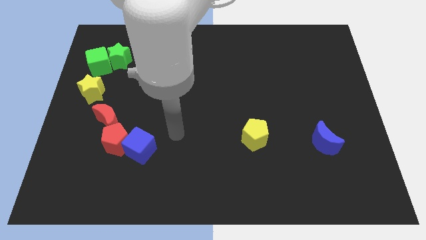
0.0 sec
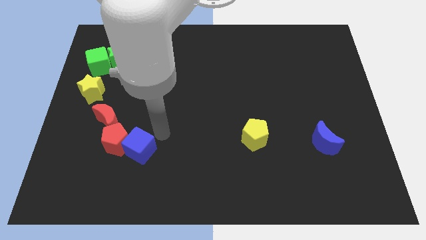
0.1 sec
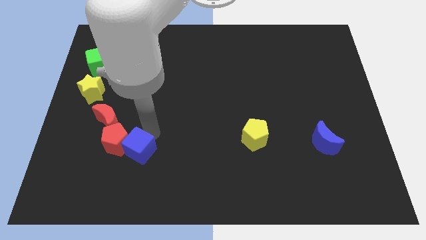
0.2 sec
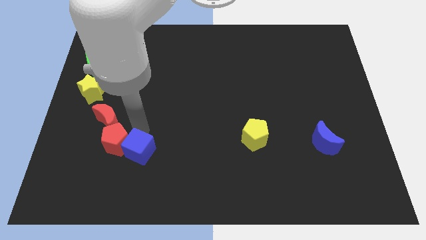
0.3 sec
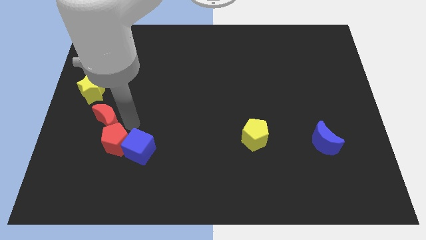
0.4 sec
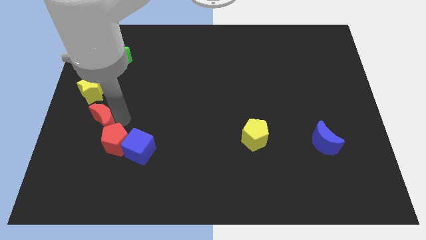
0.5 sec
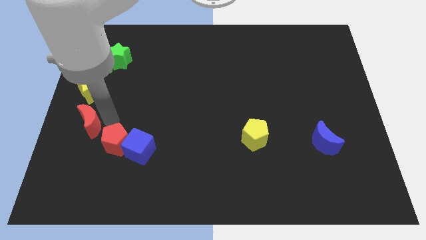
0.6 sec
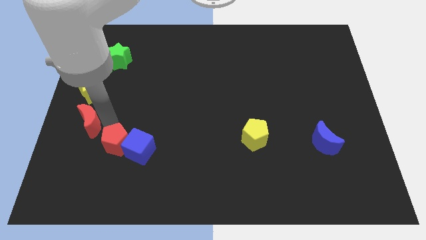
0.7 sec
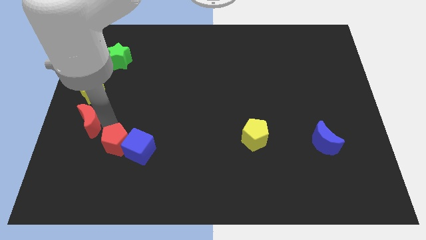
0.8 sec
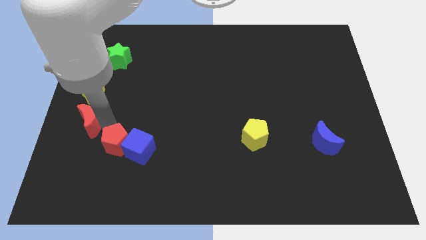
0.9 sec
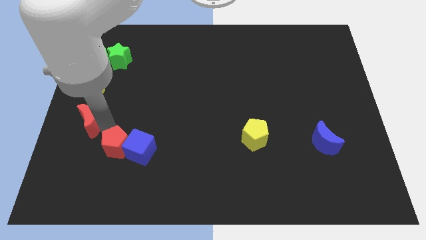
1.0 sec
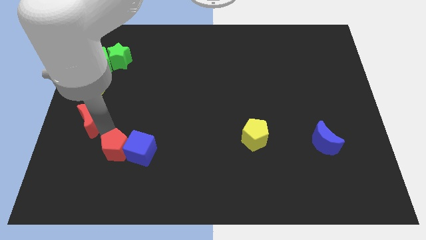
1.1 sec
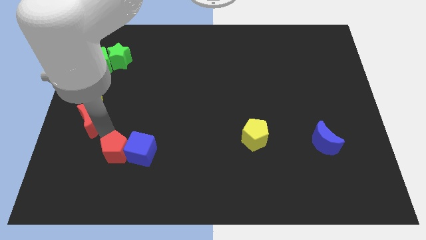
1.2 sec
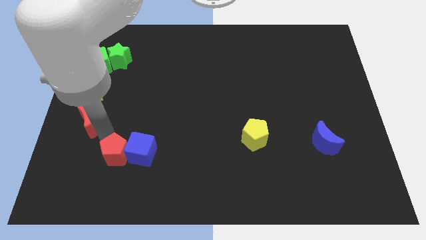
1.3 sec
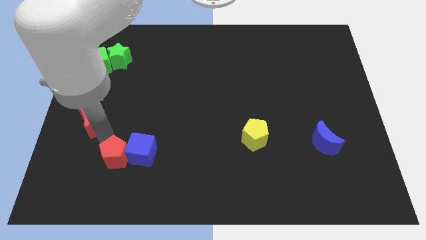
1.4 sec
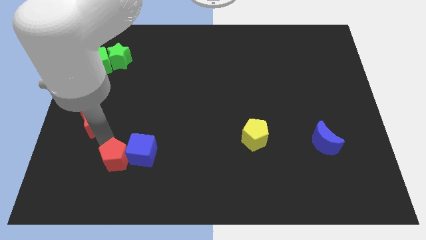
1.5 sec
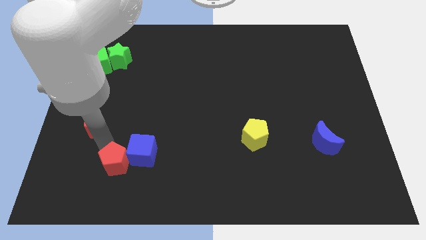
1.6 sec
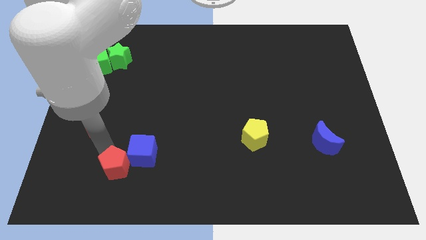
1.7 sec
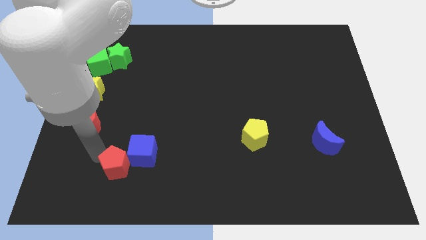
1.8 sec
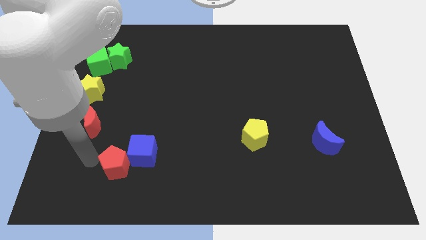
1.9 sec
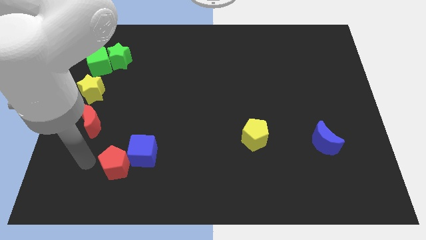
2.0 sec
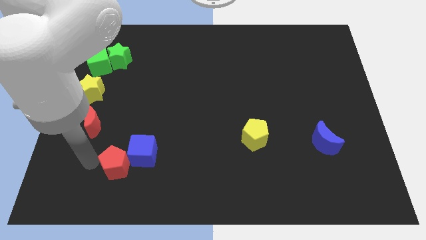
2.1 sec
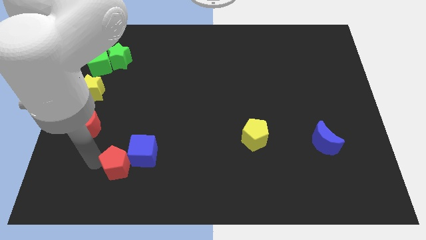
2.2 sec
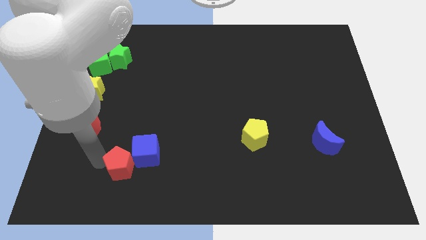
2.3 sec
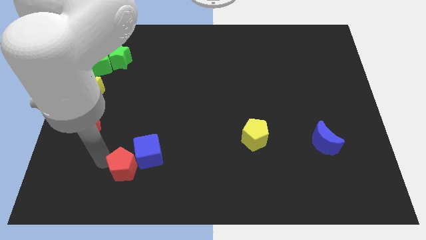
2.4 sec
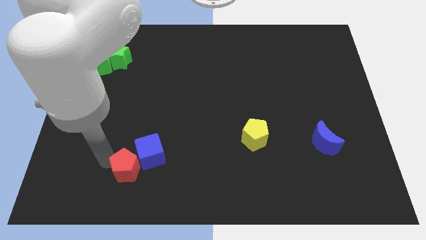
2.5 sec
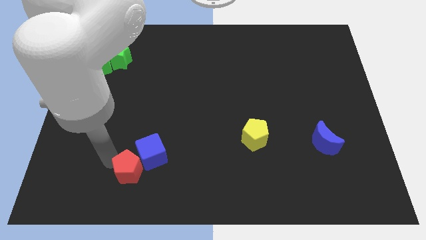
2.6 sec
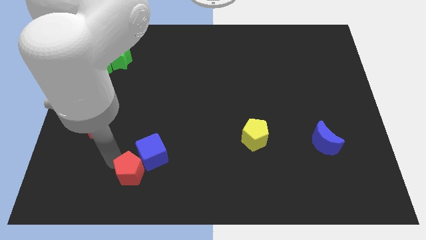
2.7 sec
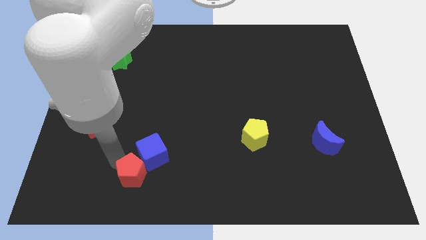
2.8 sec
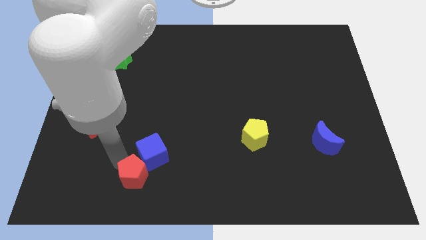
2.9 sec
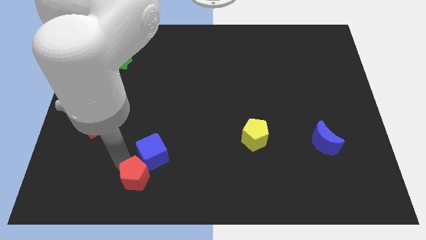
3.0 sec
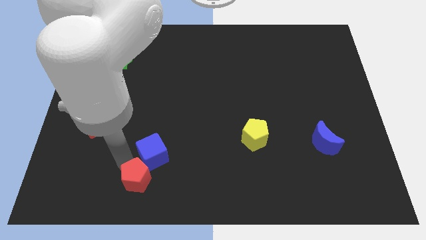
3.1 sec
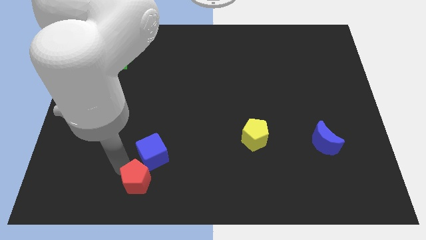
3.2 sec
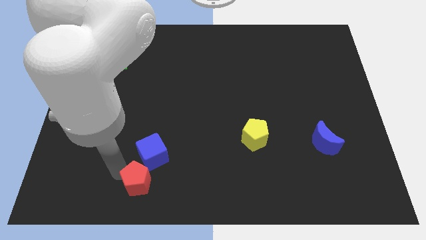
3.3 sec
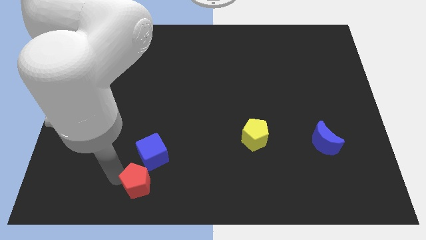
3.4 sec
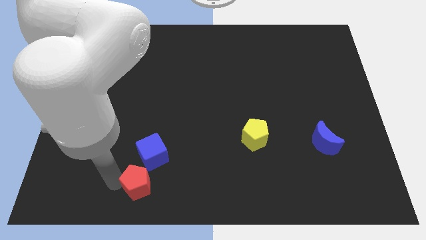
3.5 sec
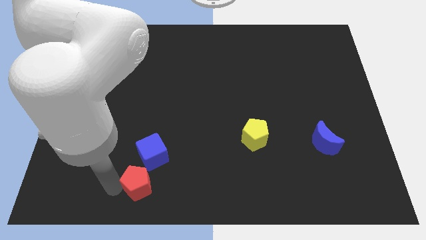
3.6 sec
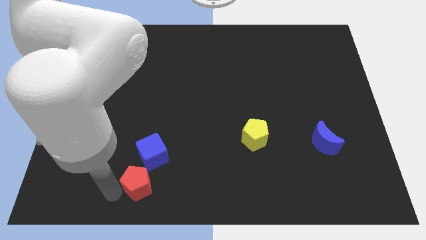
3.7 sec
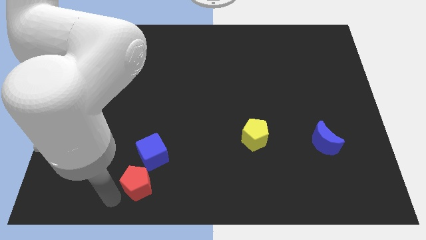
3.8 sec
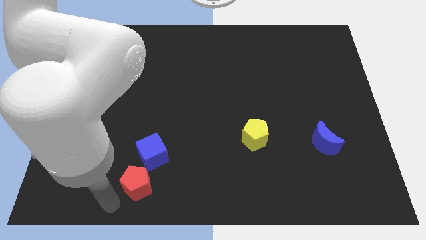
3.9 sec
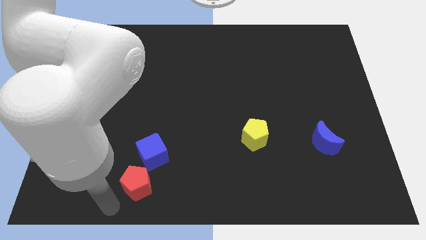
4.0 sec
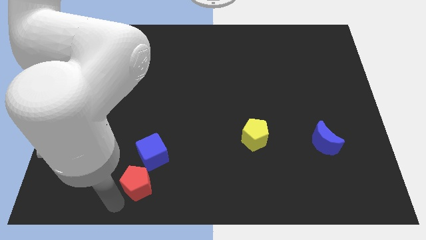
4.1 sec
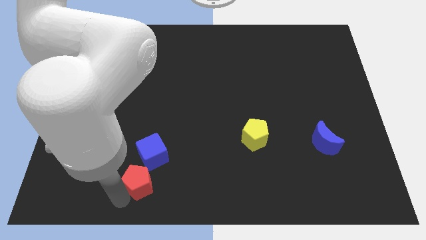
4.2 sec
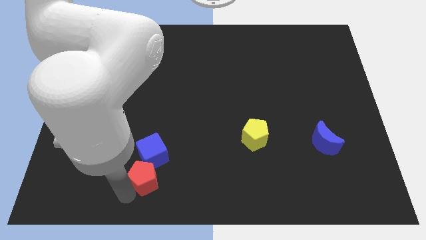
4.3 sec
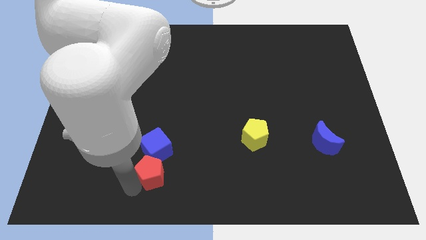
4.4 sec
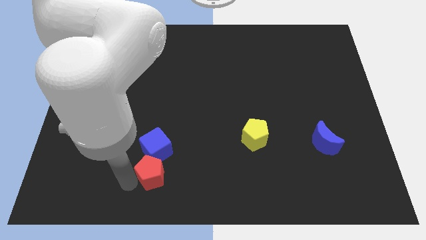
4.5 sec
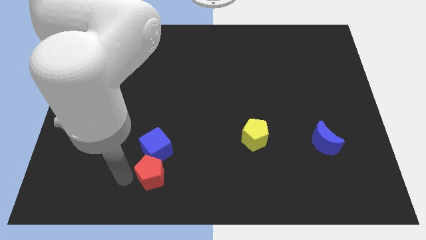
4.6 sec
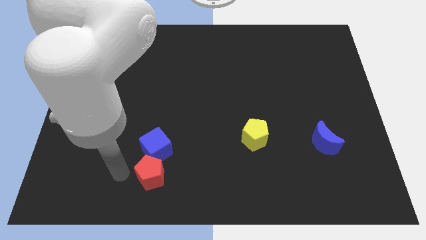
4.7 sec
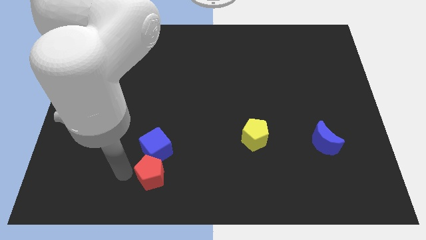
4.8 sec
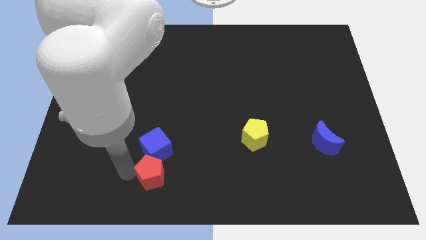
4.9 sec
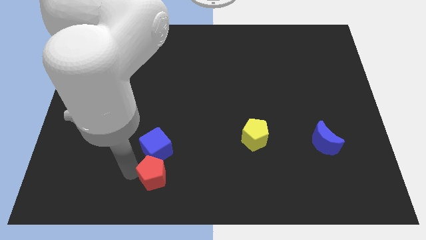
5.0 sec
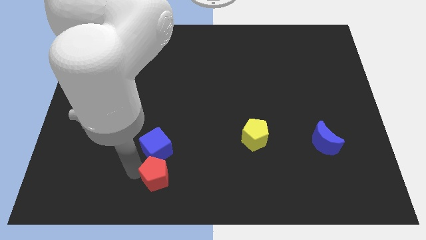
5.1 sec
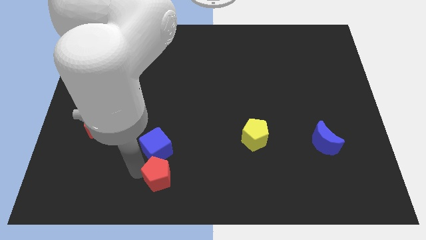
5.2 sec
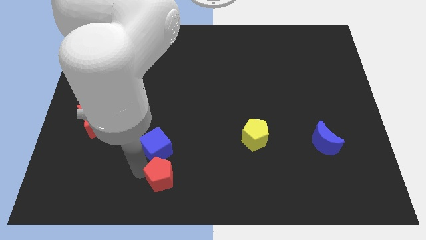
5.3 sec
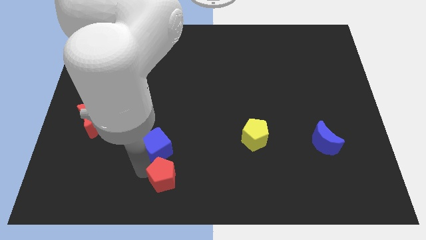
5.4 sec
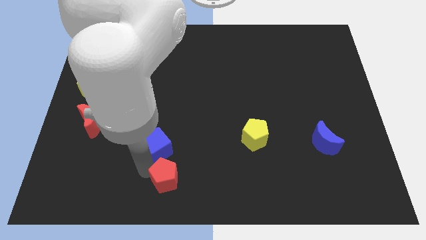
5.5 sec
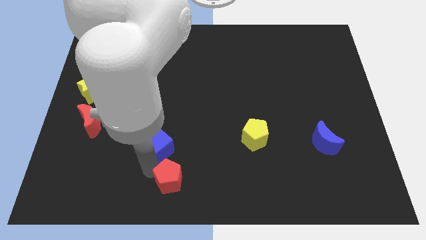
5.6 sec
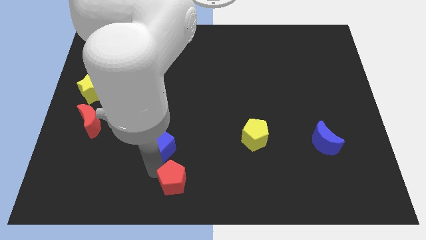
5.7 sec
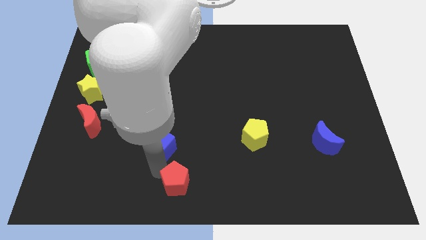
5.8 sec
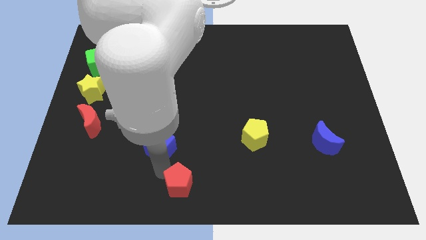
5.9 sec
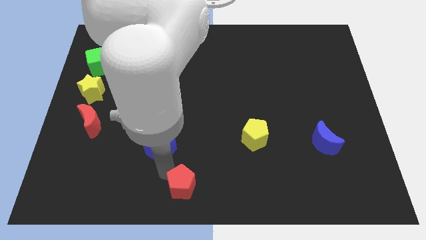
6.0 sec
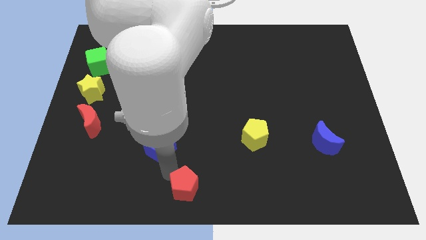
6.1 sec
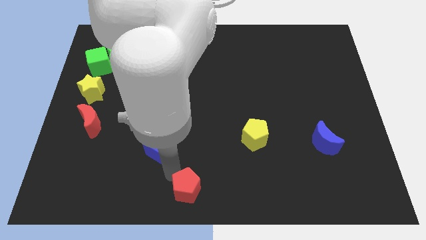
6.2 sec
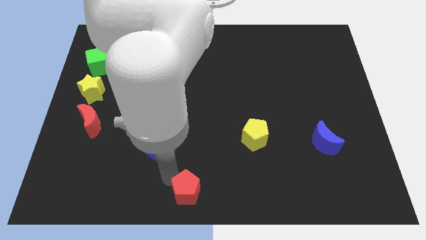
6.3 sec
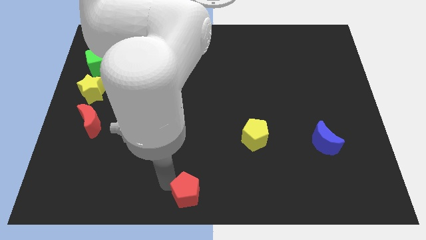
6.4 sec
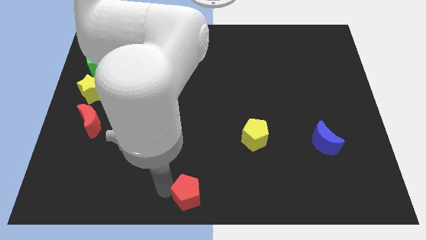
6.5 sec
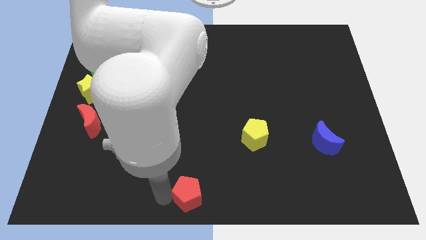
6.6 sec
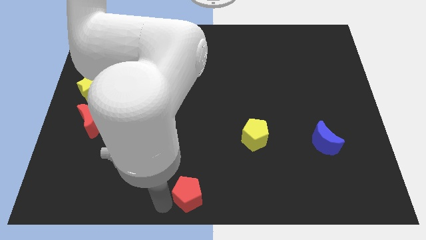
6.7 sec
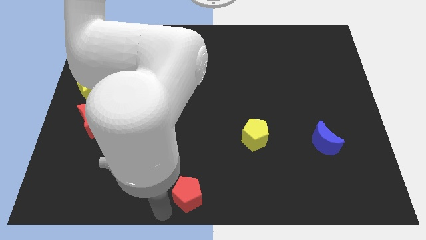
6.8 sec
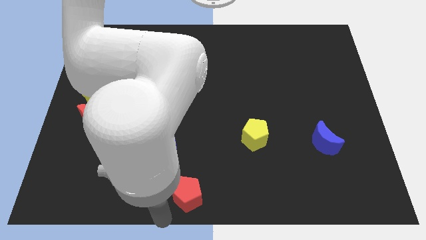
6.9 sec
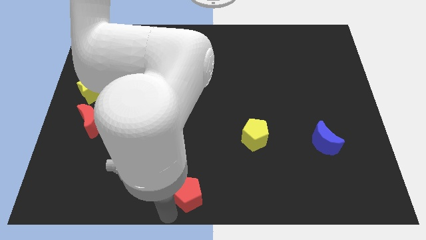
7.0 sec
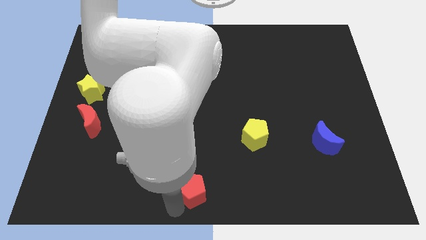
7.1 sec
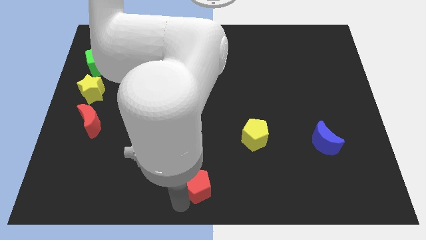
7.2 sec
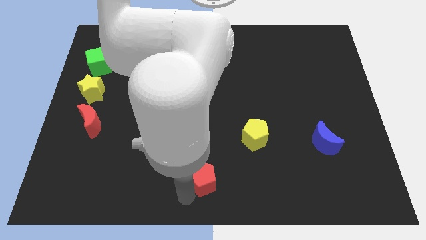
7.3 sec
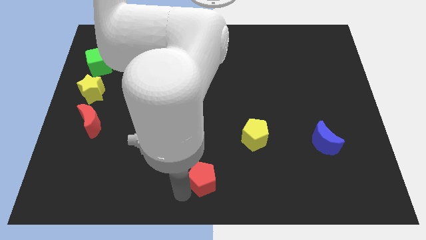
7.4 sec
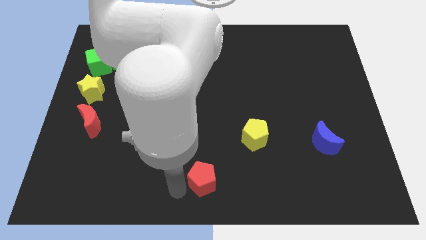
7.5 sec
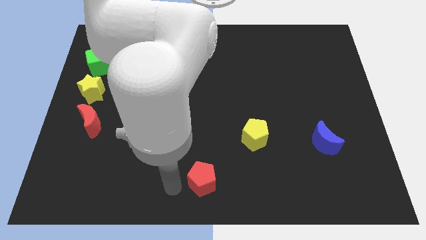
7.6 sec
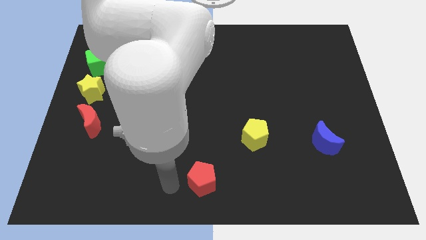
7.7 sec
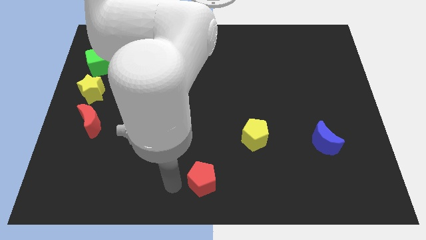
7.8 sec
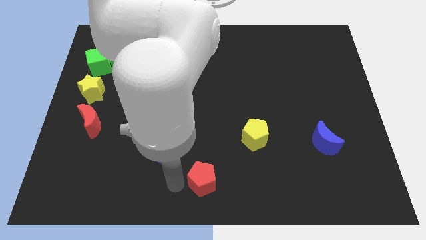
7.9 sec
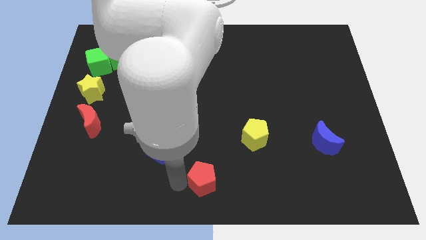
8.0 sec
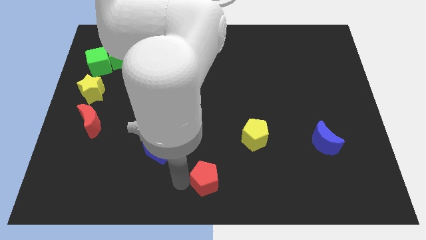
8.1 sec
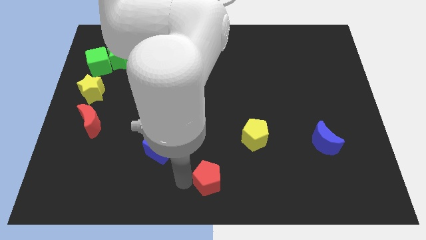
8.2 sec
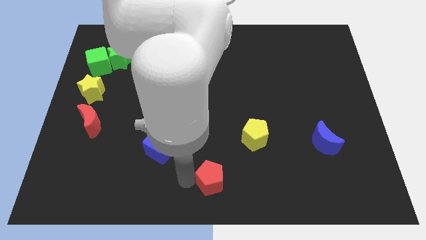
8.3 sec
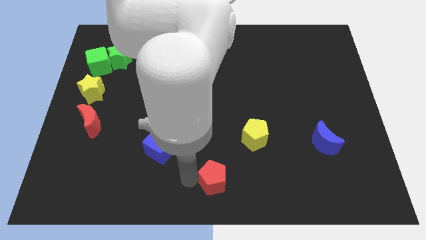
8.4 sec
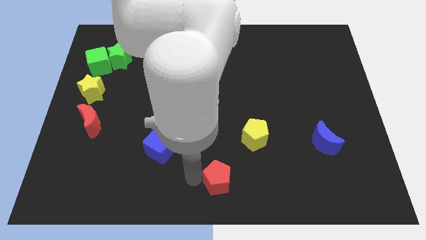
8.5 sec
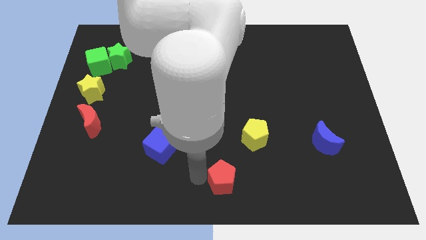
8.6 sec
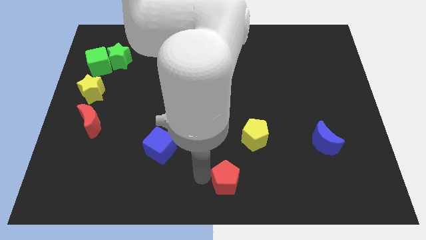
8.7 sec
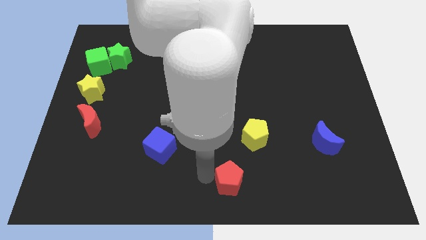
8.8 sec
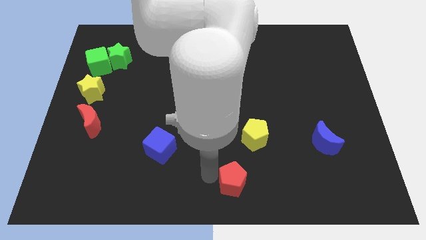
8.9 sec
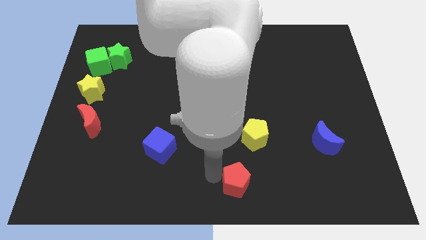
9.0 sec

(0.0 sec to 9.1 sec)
slide the red pentagon below the yellow pentagon
